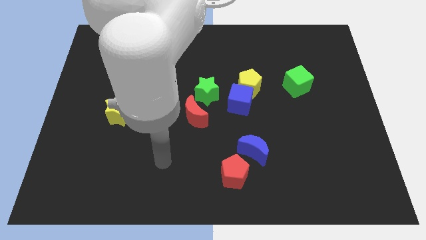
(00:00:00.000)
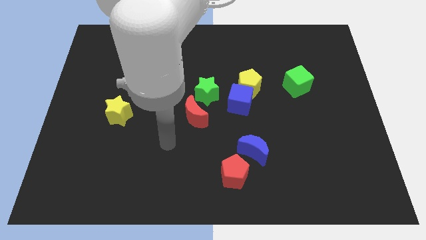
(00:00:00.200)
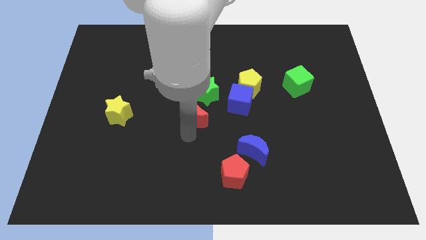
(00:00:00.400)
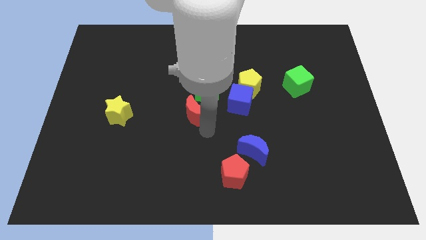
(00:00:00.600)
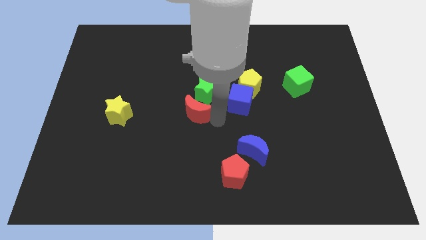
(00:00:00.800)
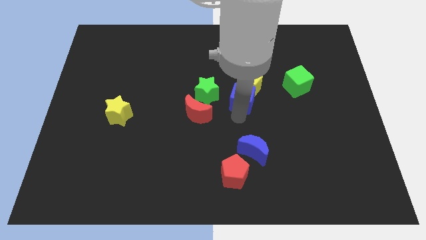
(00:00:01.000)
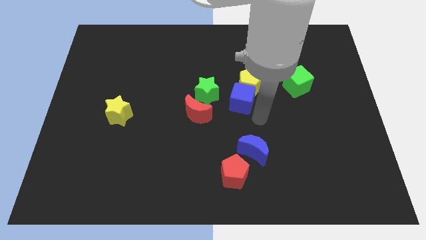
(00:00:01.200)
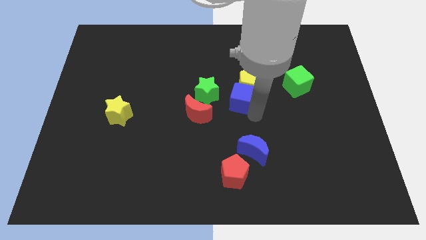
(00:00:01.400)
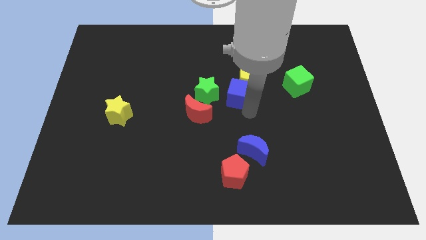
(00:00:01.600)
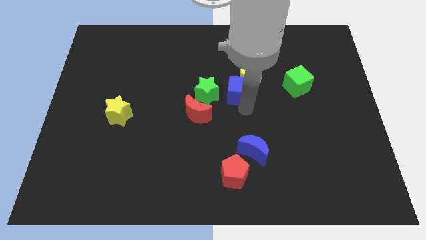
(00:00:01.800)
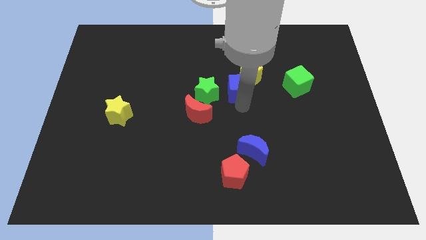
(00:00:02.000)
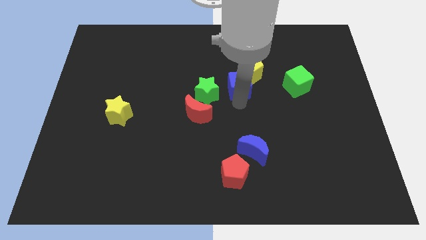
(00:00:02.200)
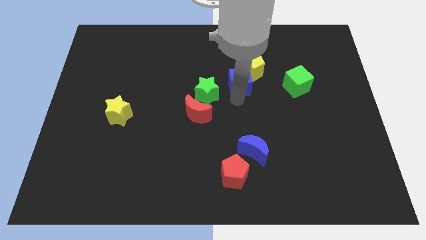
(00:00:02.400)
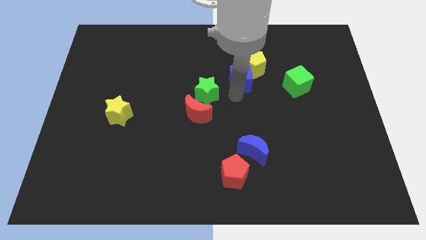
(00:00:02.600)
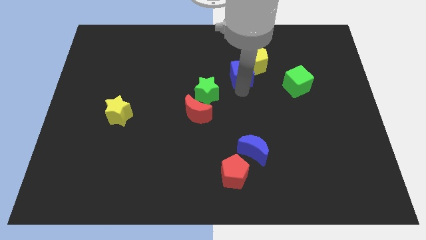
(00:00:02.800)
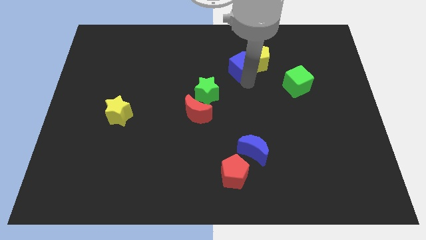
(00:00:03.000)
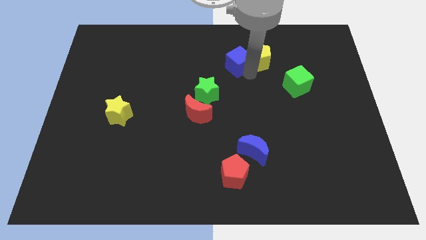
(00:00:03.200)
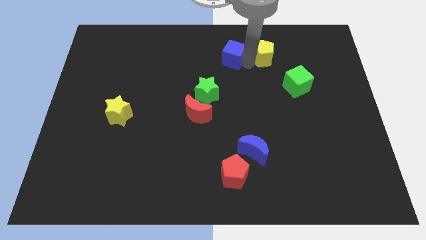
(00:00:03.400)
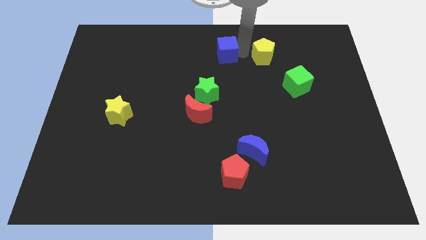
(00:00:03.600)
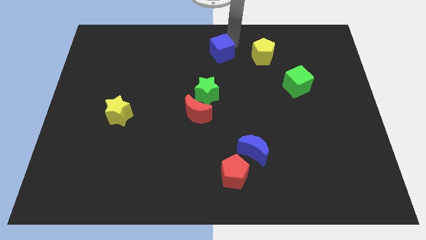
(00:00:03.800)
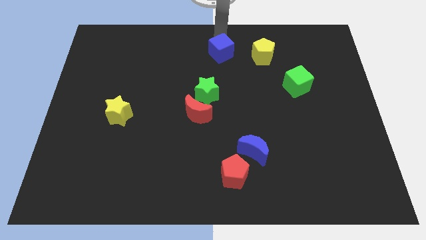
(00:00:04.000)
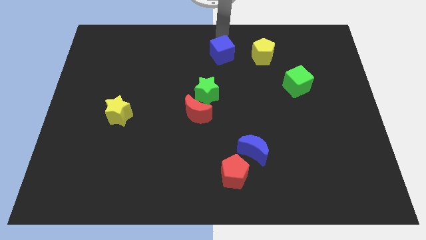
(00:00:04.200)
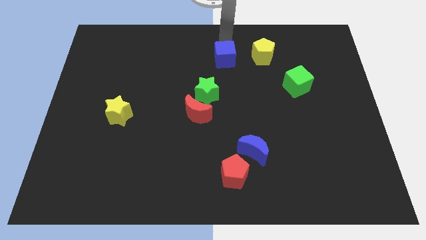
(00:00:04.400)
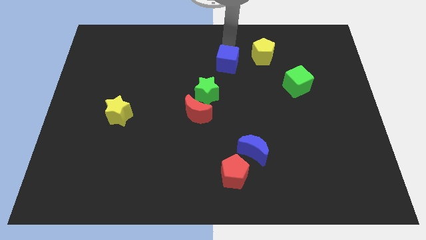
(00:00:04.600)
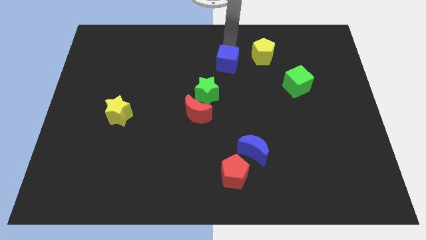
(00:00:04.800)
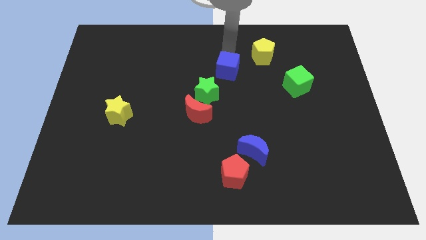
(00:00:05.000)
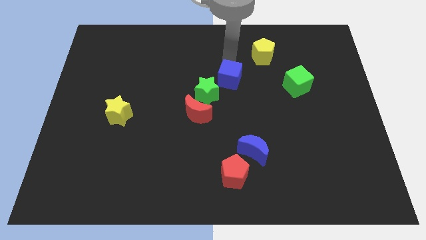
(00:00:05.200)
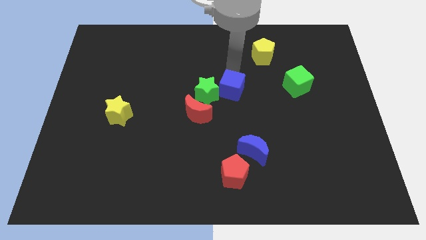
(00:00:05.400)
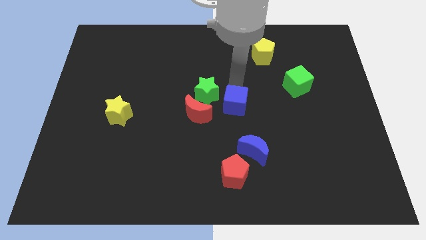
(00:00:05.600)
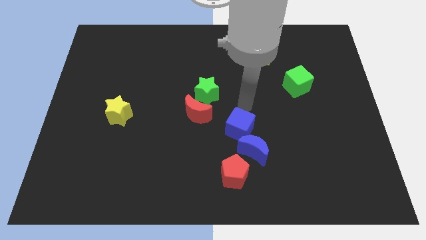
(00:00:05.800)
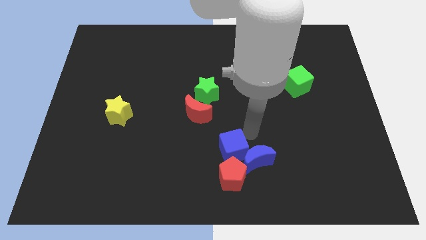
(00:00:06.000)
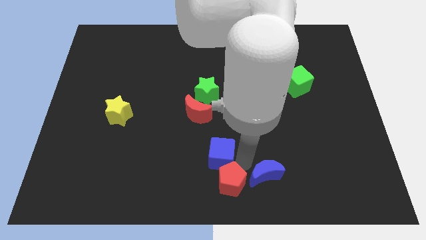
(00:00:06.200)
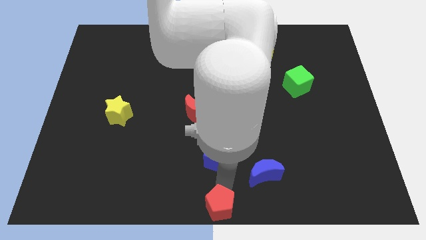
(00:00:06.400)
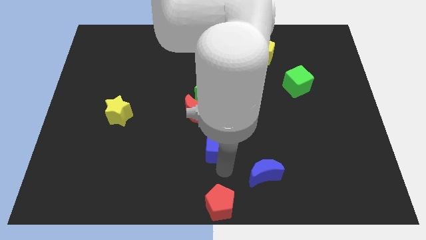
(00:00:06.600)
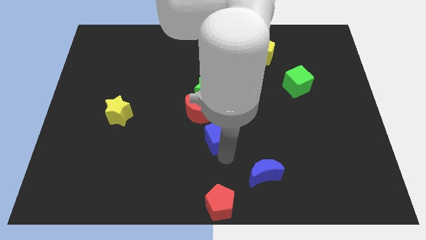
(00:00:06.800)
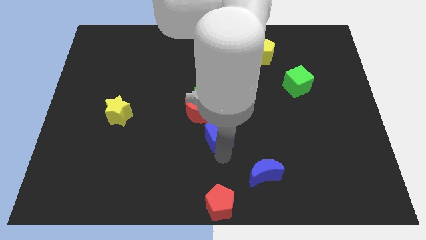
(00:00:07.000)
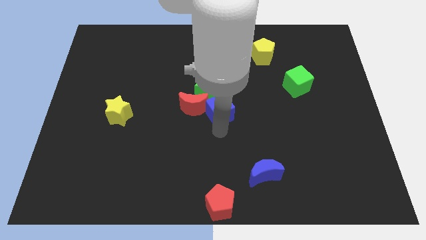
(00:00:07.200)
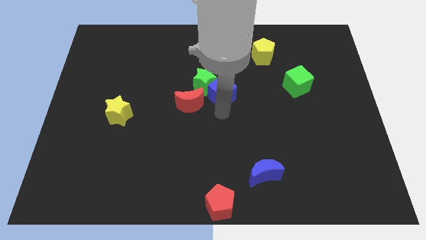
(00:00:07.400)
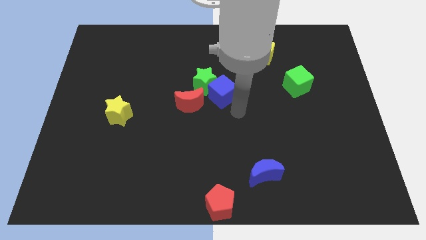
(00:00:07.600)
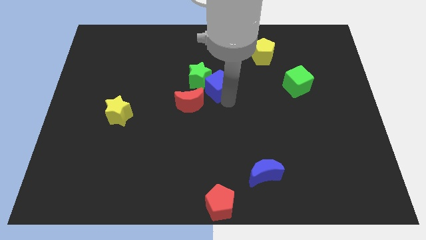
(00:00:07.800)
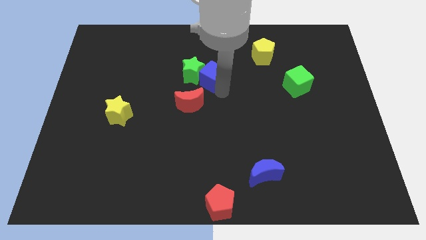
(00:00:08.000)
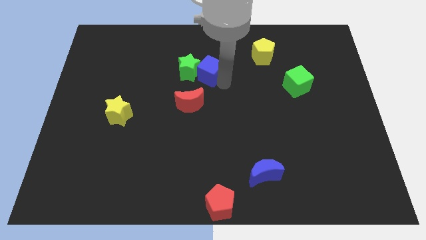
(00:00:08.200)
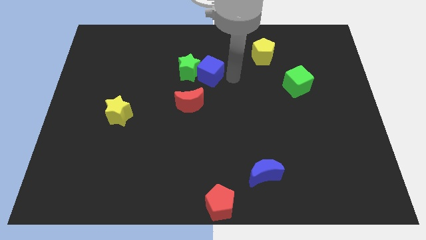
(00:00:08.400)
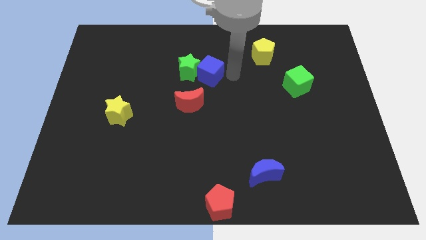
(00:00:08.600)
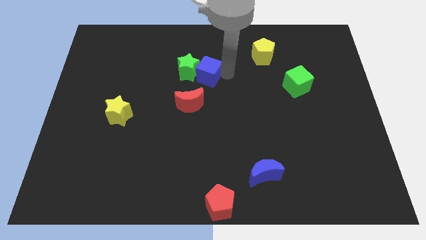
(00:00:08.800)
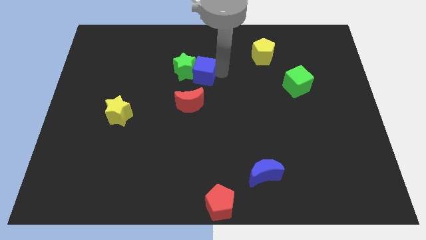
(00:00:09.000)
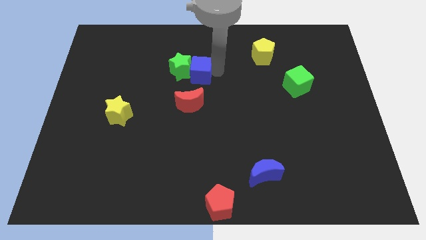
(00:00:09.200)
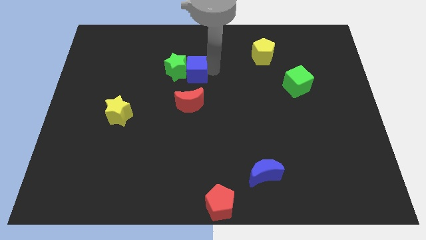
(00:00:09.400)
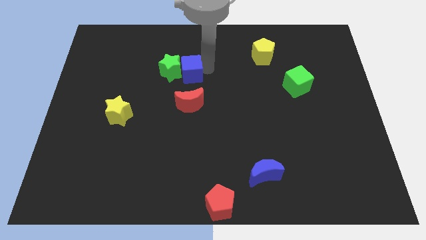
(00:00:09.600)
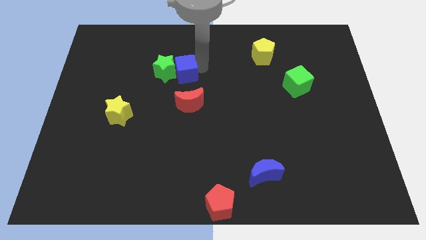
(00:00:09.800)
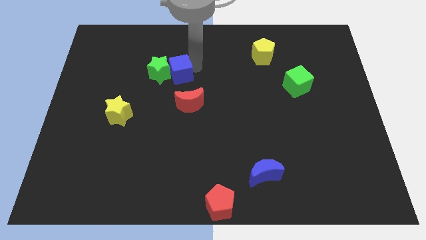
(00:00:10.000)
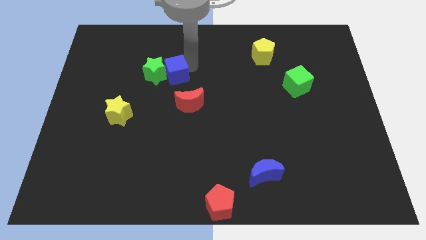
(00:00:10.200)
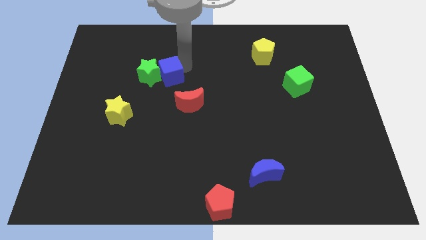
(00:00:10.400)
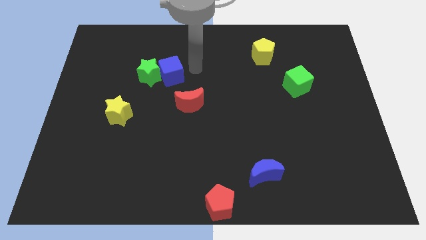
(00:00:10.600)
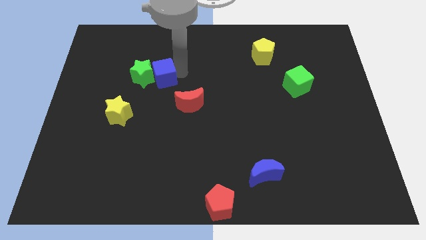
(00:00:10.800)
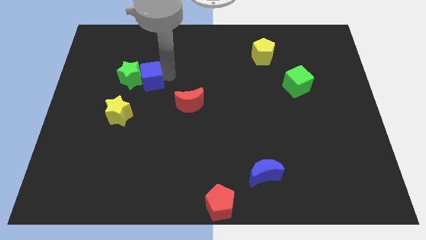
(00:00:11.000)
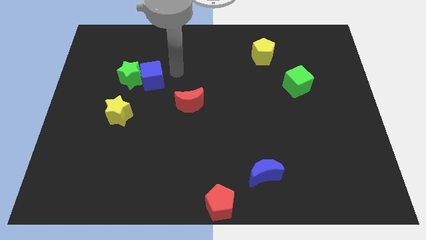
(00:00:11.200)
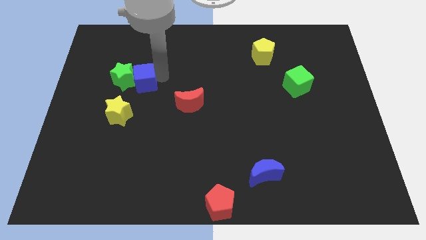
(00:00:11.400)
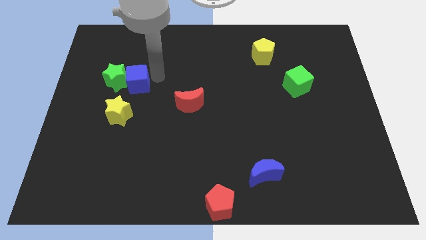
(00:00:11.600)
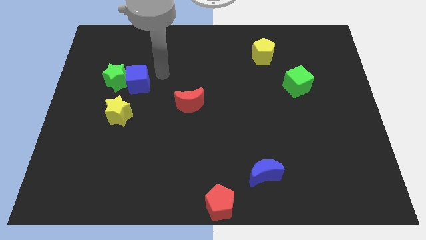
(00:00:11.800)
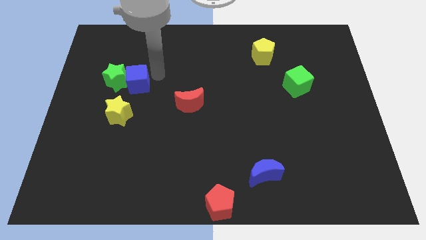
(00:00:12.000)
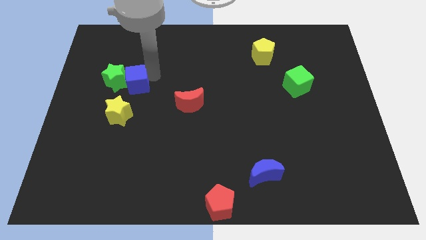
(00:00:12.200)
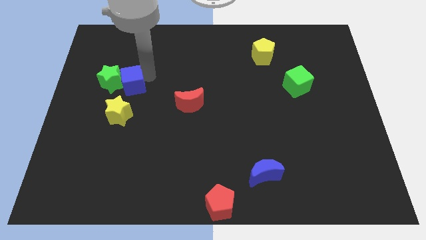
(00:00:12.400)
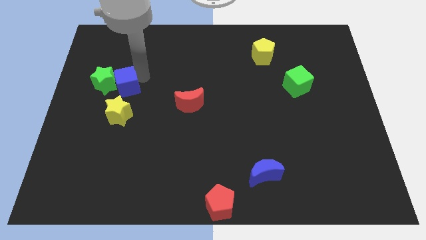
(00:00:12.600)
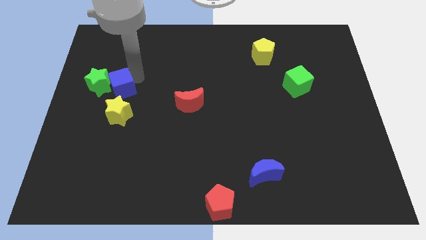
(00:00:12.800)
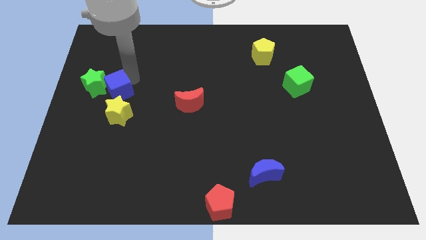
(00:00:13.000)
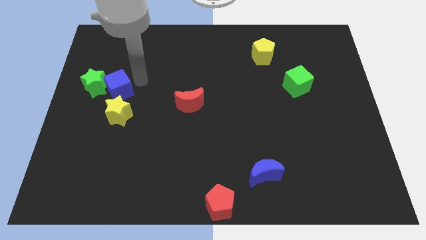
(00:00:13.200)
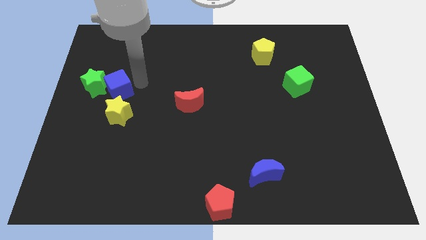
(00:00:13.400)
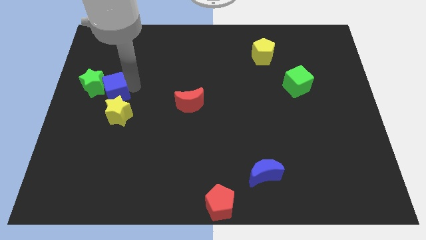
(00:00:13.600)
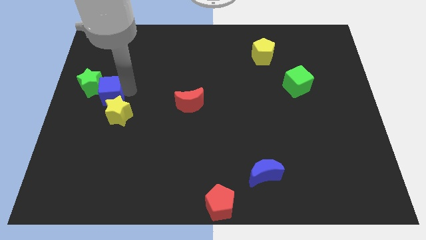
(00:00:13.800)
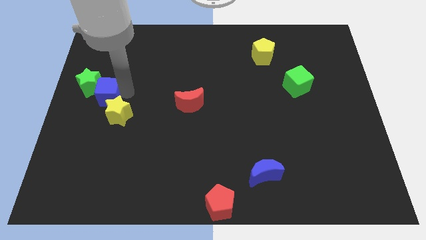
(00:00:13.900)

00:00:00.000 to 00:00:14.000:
move the blue cube to the left side of the board
